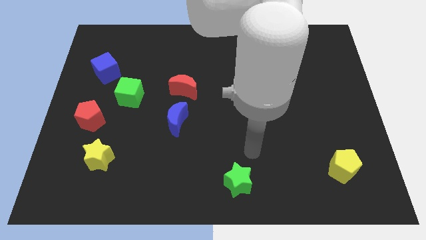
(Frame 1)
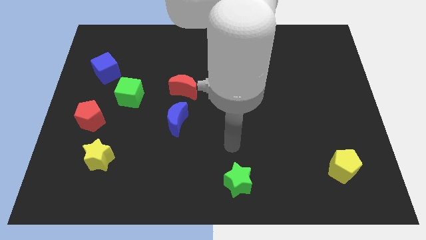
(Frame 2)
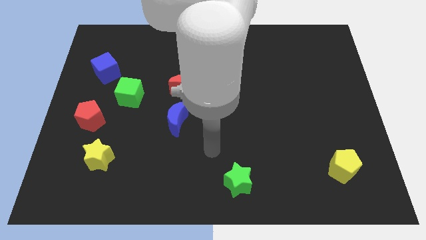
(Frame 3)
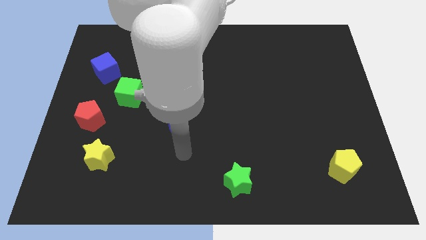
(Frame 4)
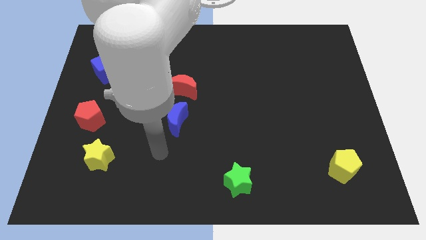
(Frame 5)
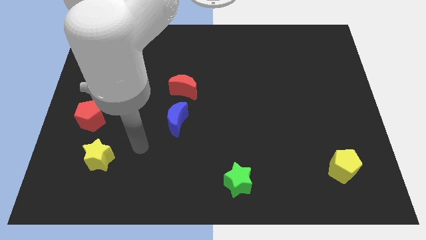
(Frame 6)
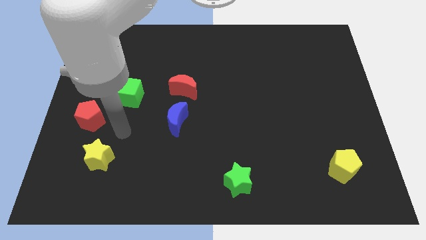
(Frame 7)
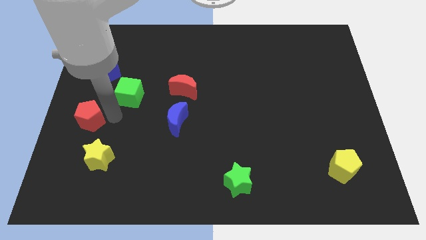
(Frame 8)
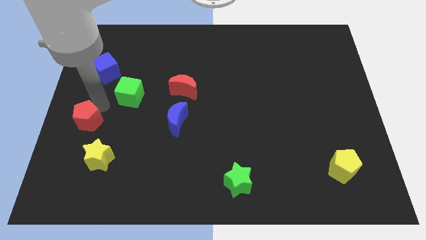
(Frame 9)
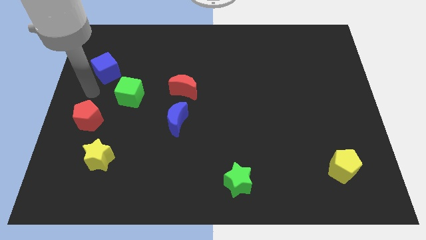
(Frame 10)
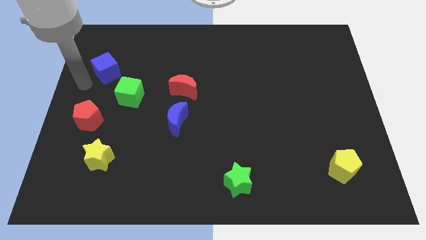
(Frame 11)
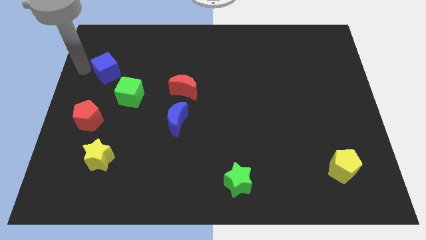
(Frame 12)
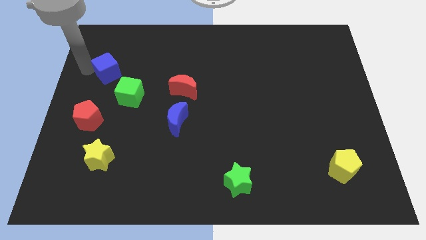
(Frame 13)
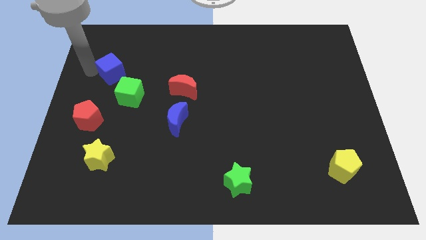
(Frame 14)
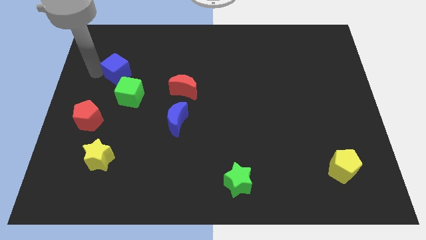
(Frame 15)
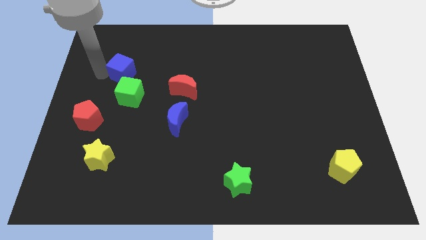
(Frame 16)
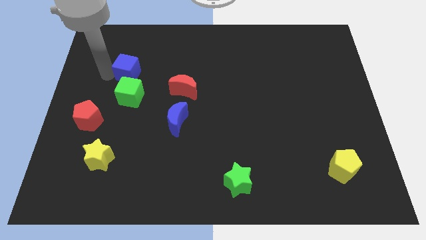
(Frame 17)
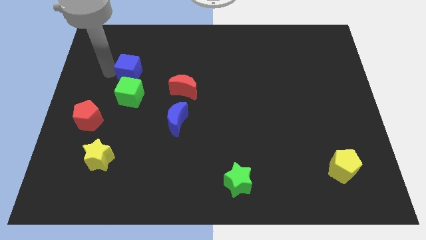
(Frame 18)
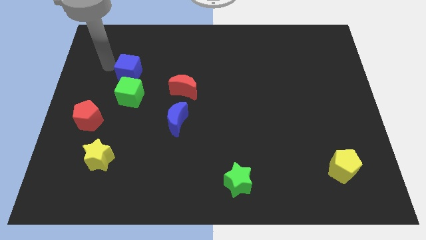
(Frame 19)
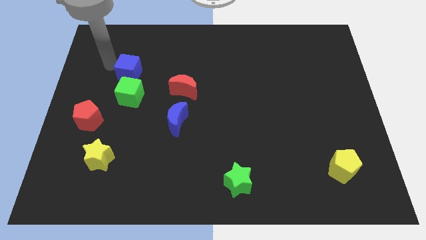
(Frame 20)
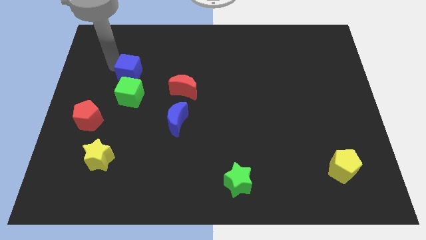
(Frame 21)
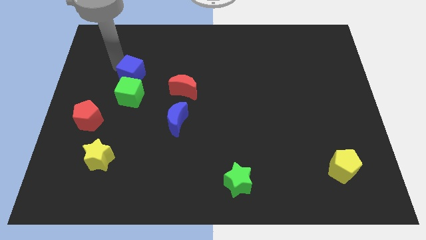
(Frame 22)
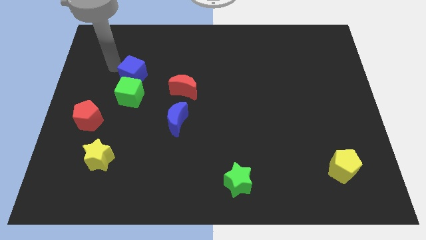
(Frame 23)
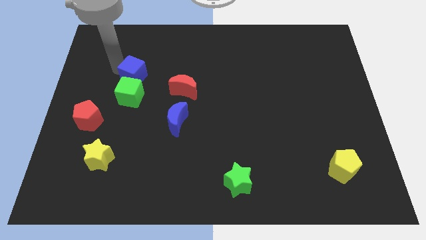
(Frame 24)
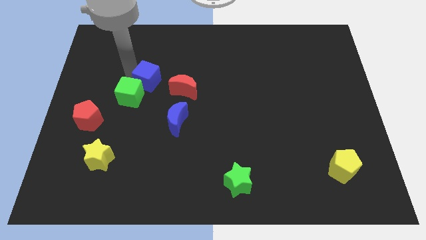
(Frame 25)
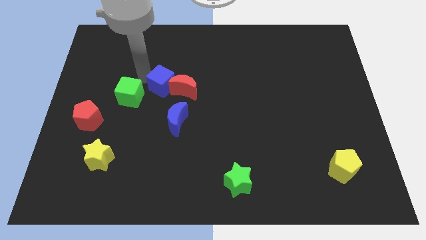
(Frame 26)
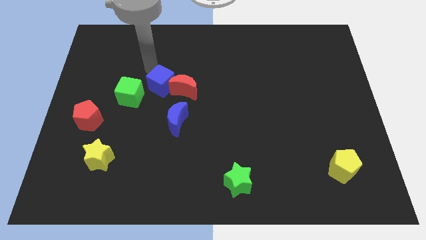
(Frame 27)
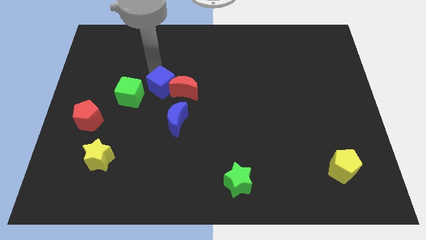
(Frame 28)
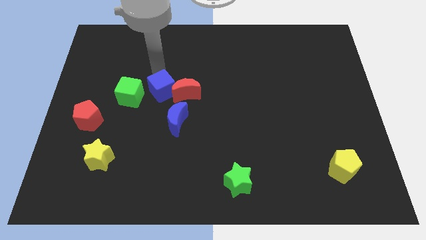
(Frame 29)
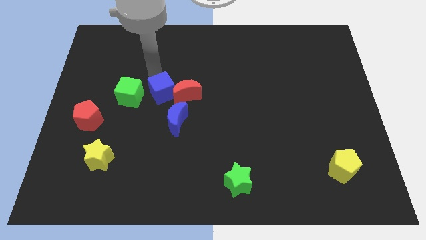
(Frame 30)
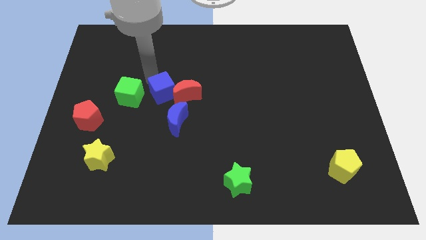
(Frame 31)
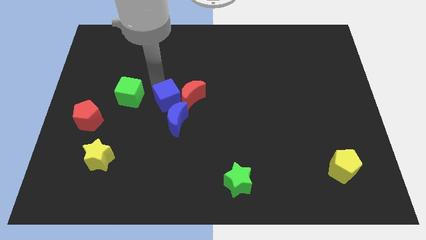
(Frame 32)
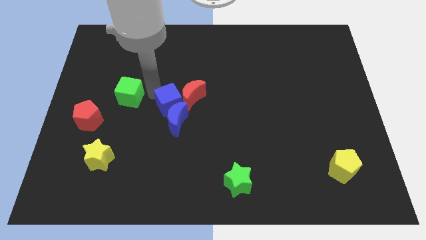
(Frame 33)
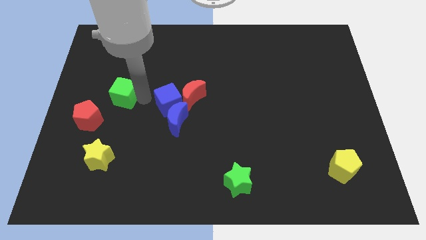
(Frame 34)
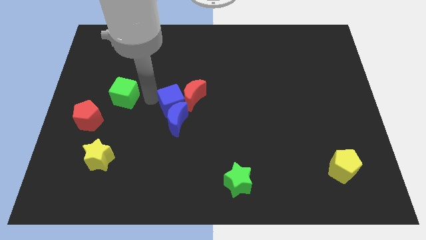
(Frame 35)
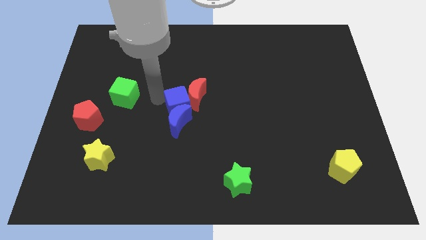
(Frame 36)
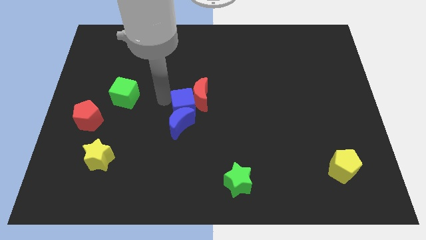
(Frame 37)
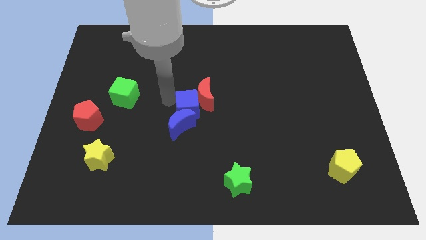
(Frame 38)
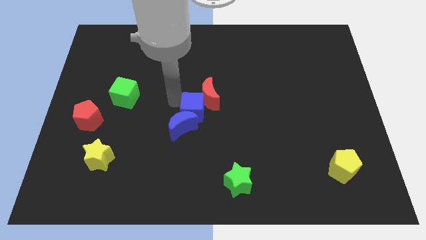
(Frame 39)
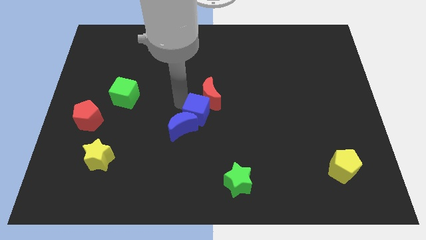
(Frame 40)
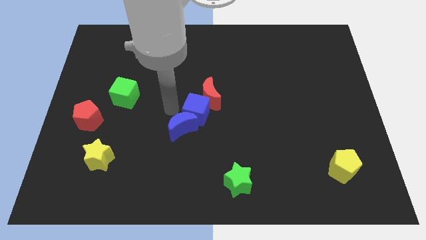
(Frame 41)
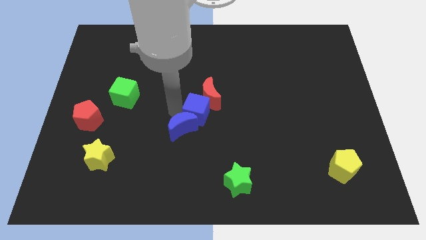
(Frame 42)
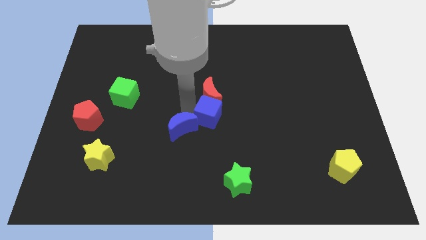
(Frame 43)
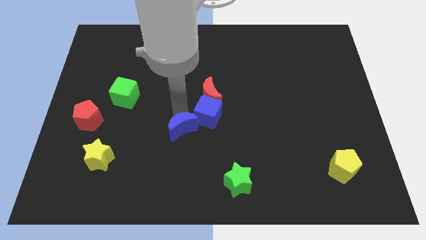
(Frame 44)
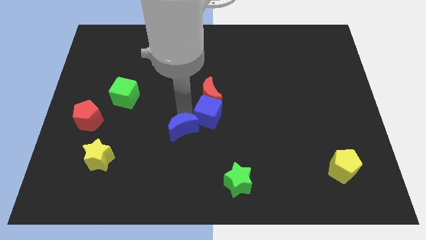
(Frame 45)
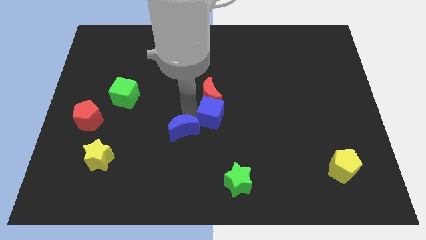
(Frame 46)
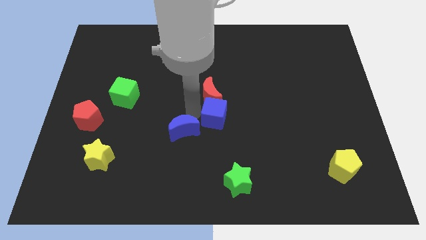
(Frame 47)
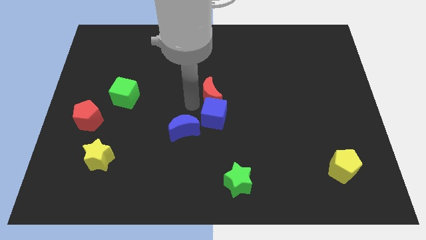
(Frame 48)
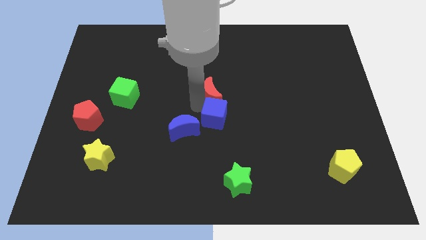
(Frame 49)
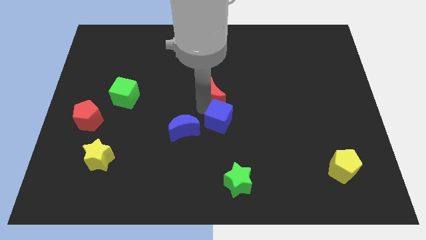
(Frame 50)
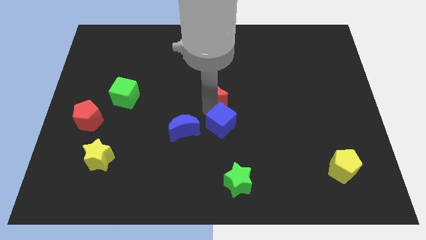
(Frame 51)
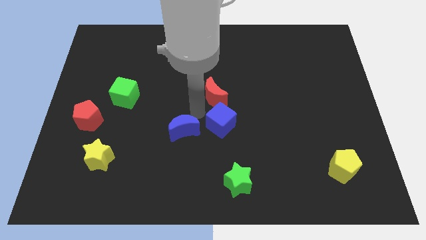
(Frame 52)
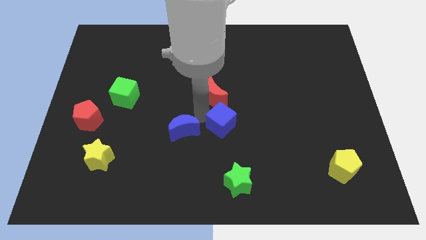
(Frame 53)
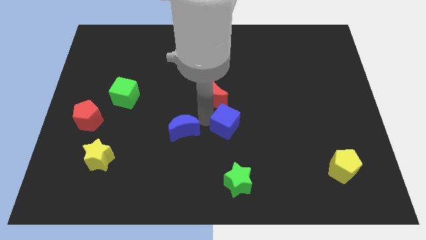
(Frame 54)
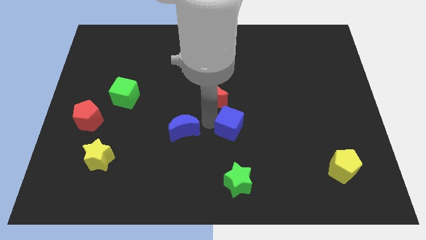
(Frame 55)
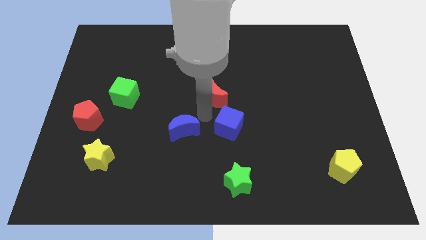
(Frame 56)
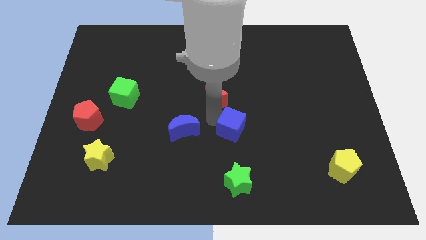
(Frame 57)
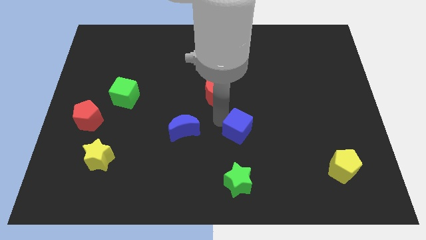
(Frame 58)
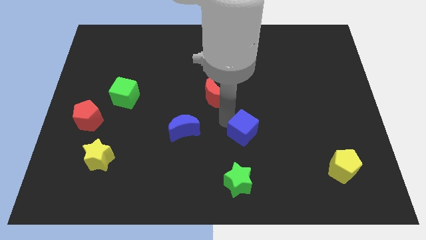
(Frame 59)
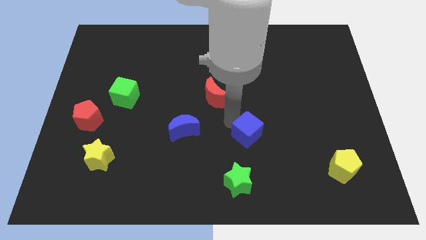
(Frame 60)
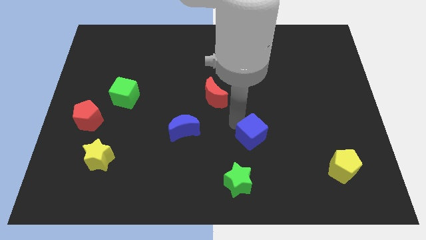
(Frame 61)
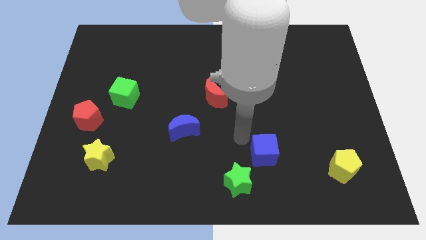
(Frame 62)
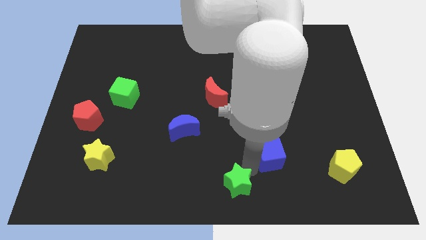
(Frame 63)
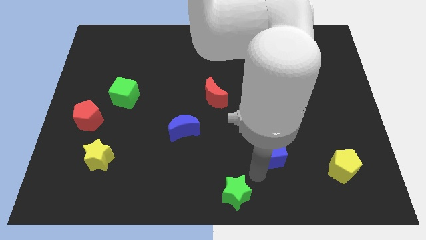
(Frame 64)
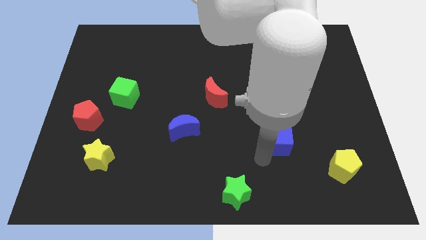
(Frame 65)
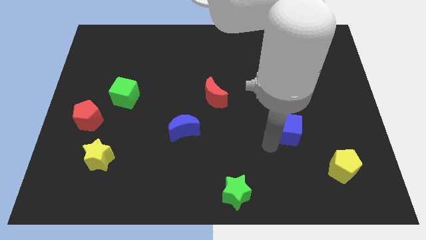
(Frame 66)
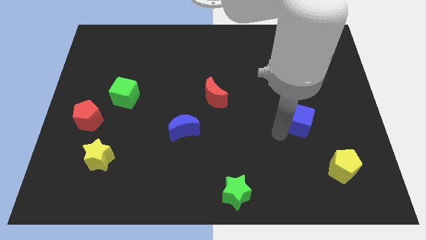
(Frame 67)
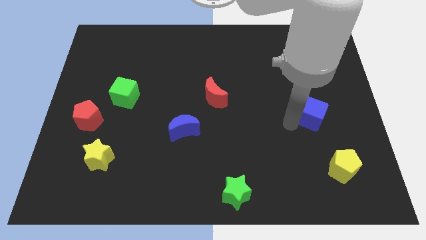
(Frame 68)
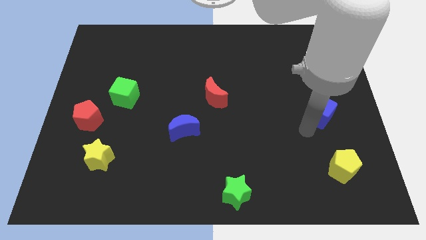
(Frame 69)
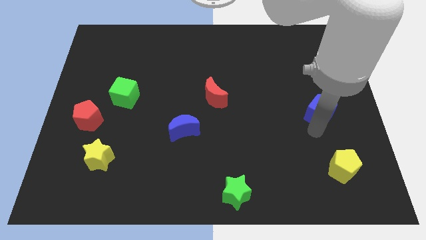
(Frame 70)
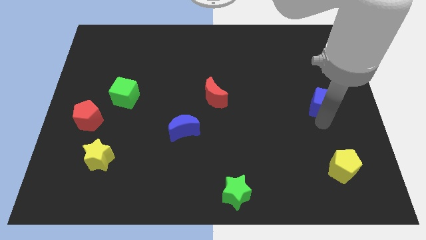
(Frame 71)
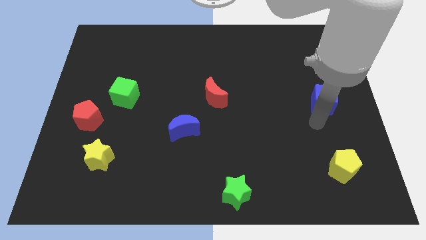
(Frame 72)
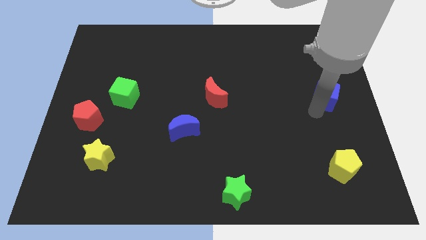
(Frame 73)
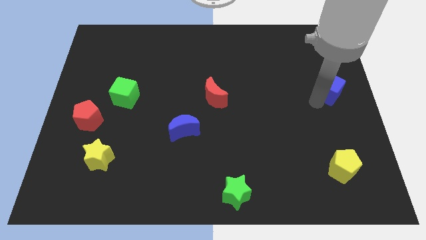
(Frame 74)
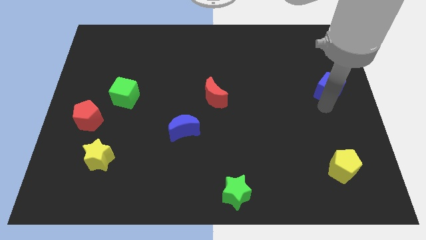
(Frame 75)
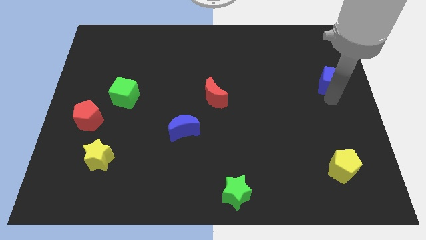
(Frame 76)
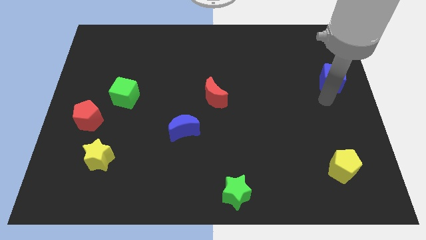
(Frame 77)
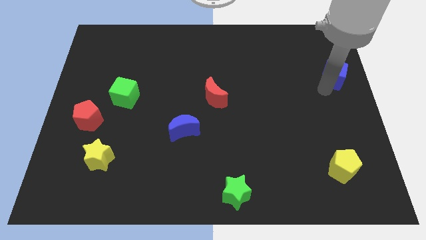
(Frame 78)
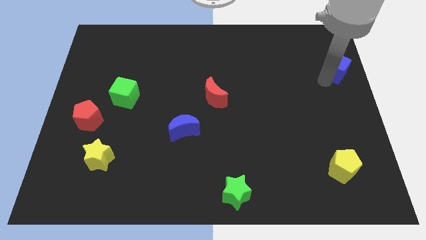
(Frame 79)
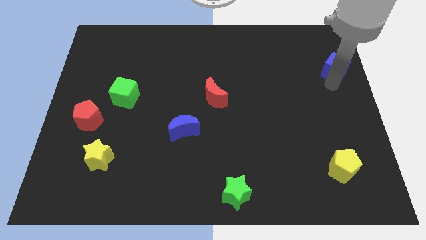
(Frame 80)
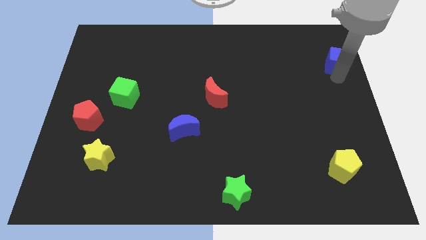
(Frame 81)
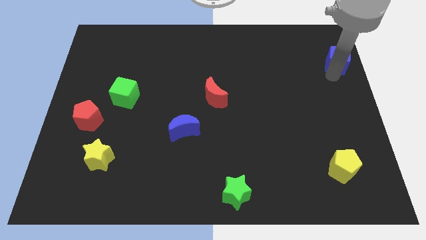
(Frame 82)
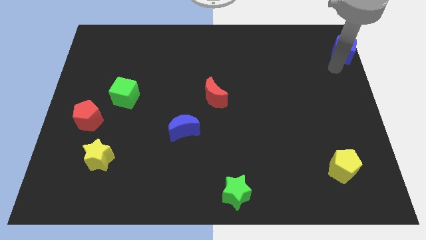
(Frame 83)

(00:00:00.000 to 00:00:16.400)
slide the blue cube to the upper right corner
